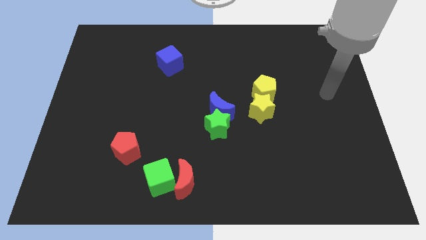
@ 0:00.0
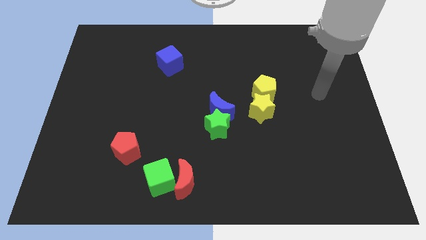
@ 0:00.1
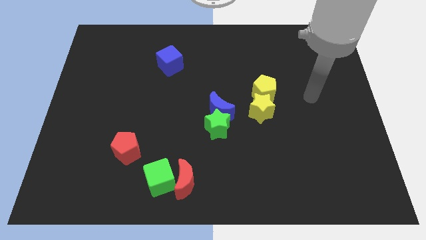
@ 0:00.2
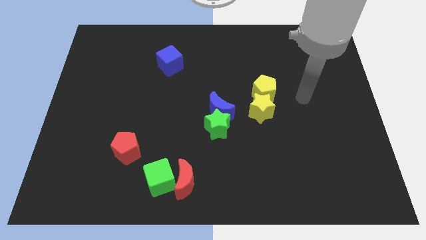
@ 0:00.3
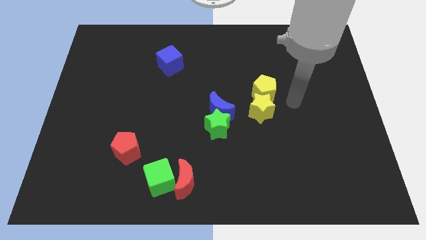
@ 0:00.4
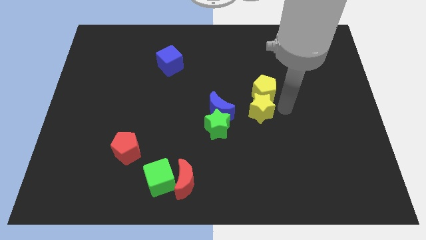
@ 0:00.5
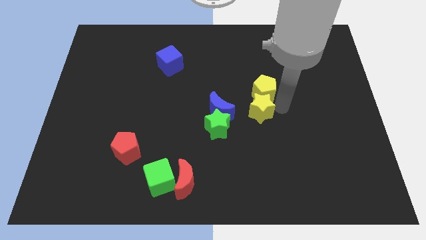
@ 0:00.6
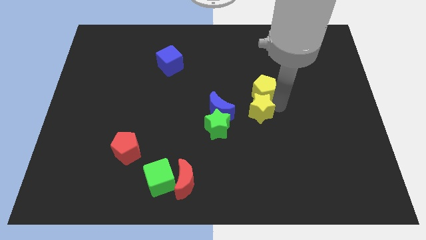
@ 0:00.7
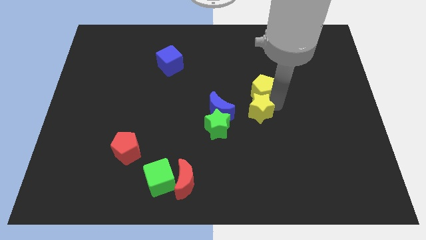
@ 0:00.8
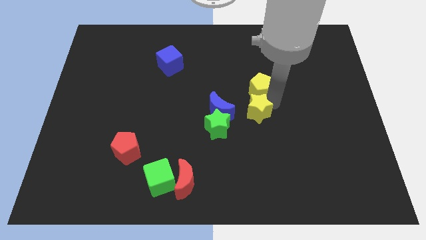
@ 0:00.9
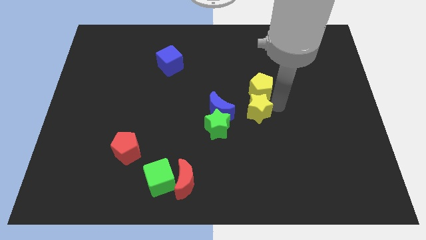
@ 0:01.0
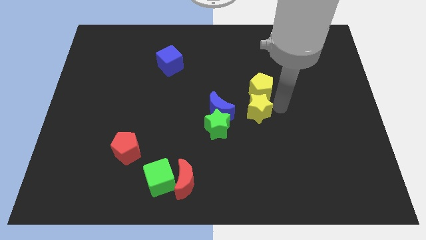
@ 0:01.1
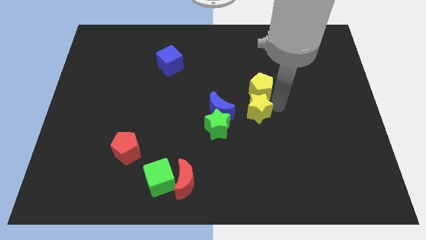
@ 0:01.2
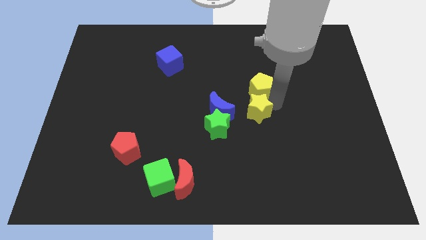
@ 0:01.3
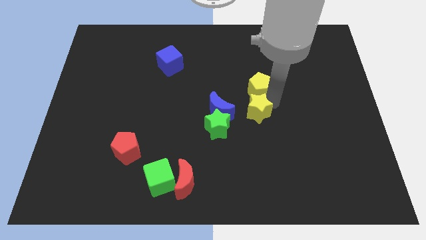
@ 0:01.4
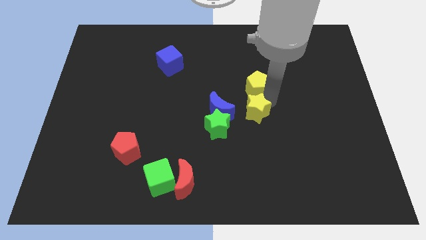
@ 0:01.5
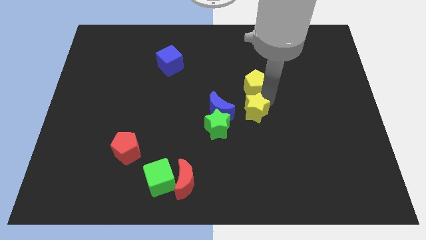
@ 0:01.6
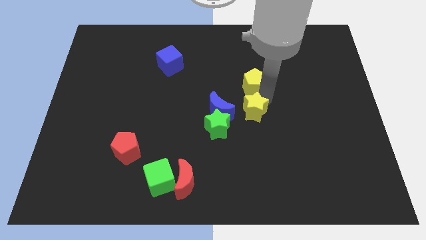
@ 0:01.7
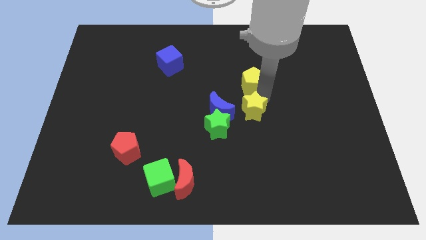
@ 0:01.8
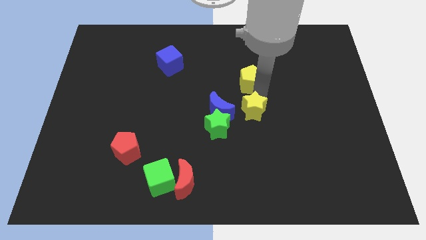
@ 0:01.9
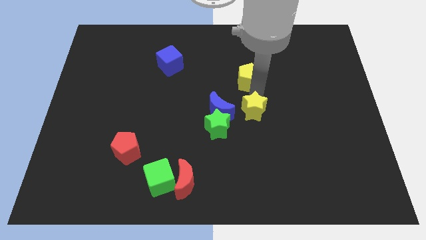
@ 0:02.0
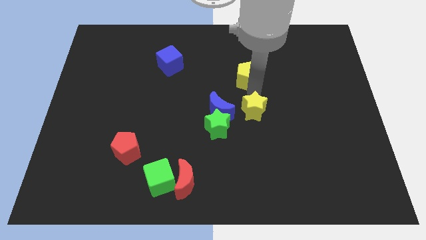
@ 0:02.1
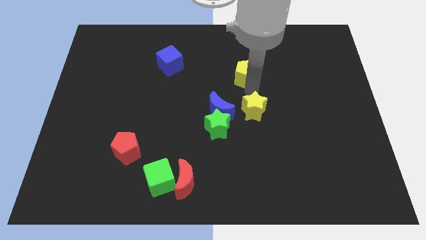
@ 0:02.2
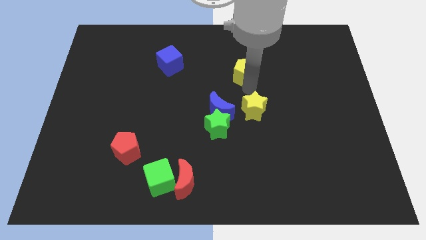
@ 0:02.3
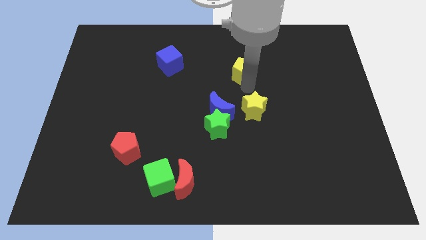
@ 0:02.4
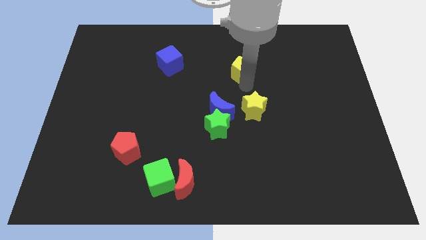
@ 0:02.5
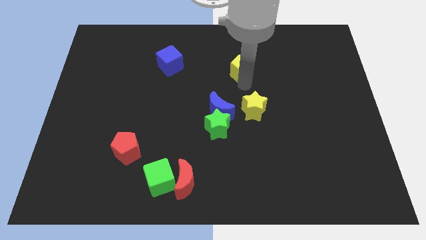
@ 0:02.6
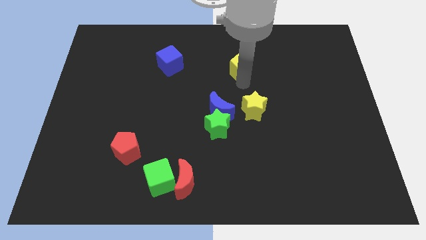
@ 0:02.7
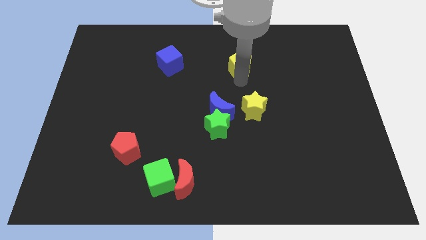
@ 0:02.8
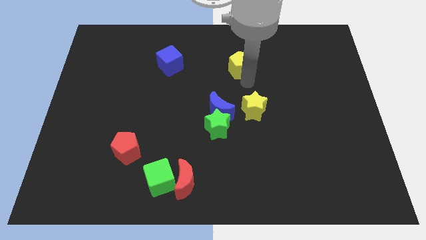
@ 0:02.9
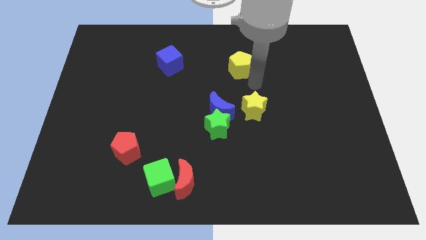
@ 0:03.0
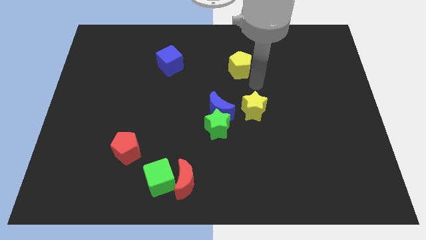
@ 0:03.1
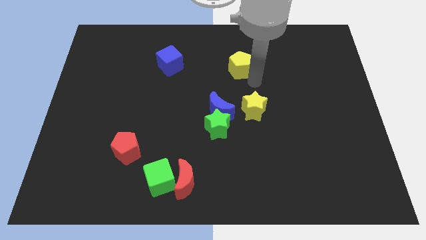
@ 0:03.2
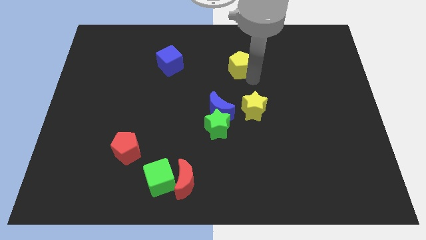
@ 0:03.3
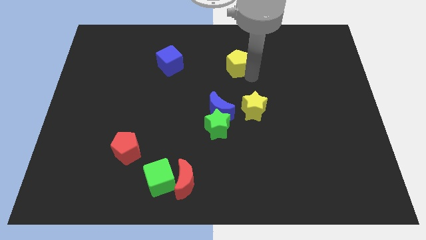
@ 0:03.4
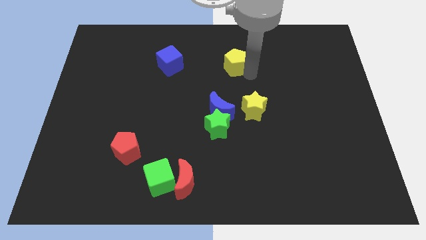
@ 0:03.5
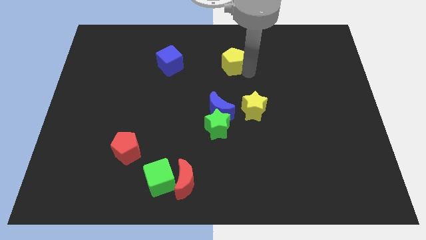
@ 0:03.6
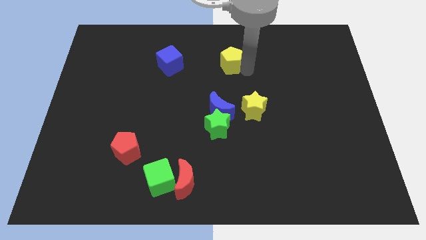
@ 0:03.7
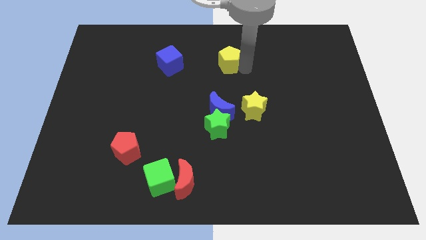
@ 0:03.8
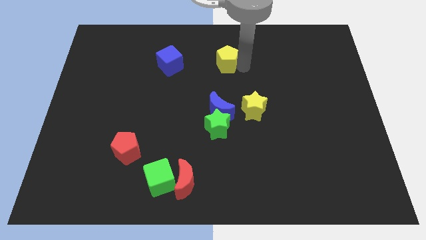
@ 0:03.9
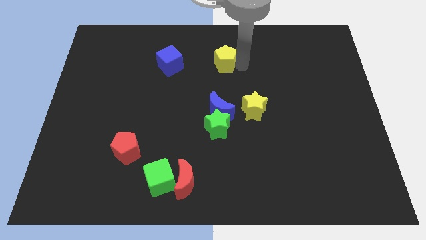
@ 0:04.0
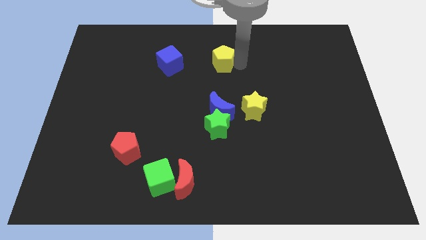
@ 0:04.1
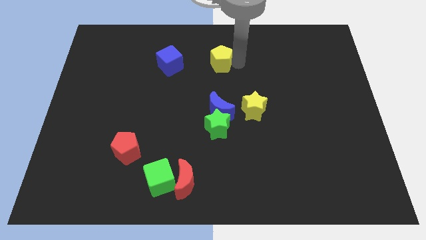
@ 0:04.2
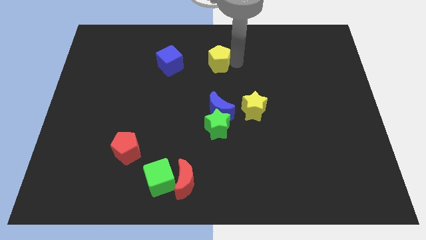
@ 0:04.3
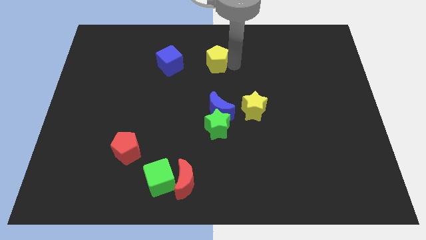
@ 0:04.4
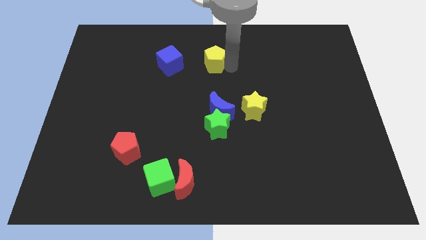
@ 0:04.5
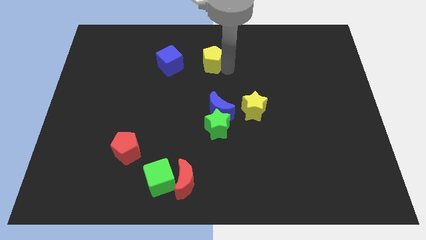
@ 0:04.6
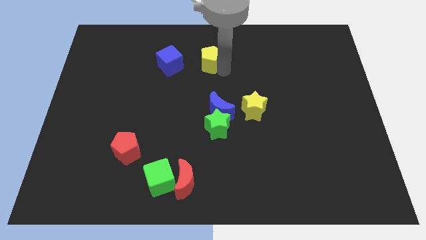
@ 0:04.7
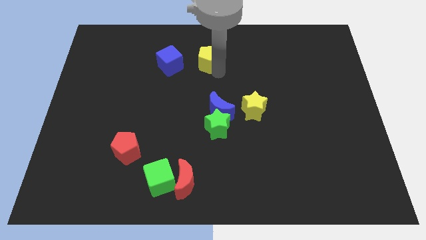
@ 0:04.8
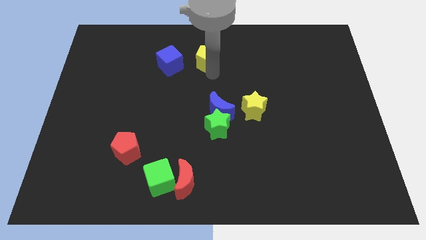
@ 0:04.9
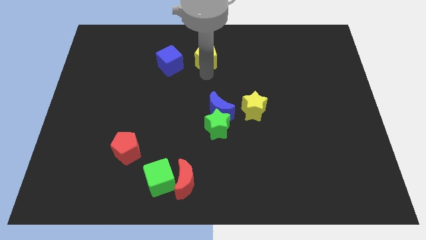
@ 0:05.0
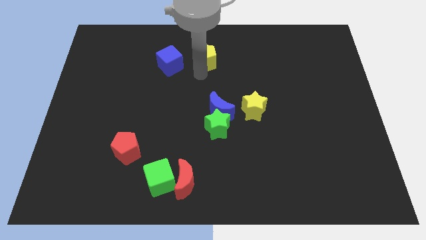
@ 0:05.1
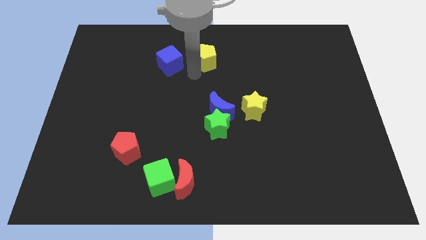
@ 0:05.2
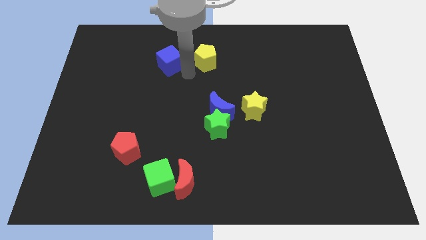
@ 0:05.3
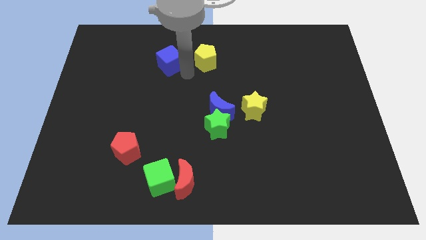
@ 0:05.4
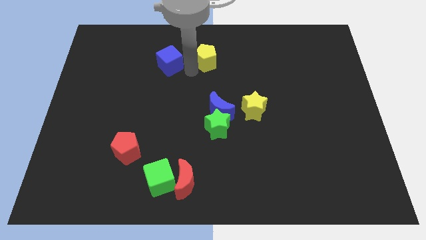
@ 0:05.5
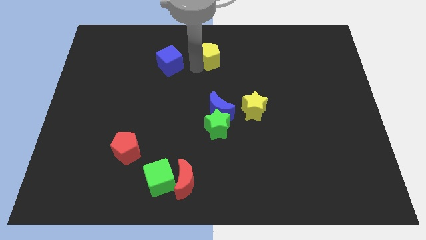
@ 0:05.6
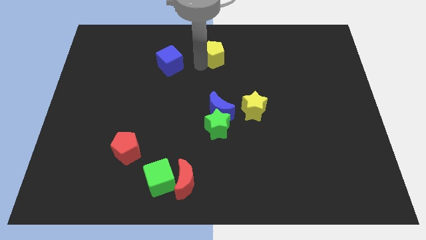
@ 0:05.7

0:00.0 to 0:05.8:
move the yellow pentagon to the towards your base
